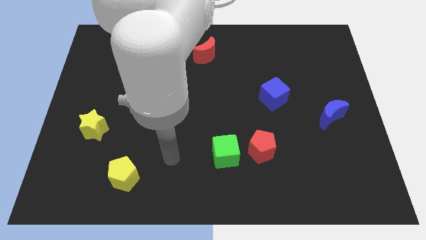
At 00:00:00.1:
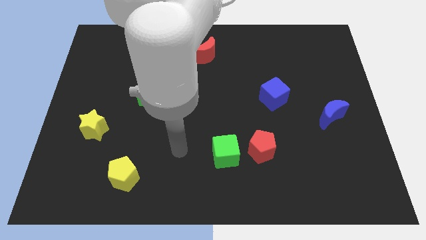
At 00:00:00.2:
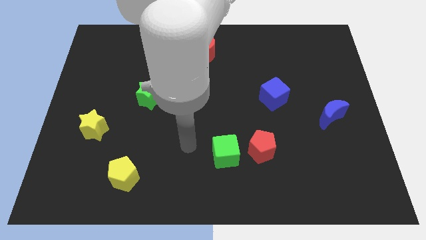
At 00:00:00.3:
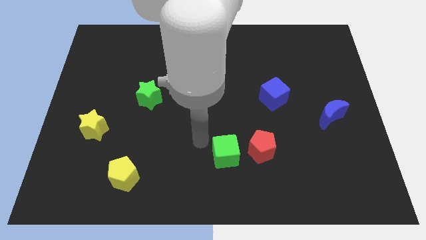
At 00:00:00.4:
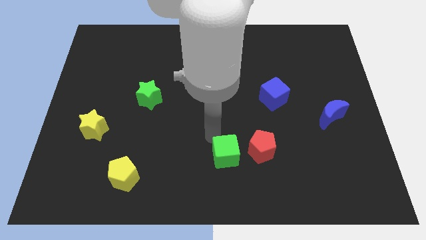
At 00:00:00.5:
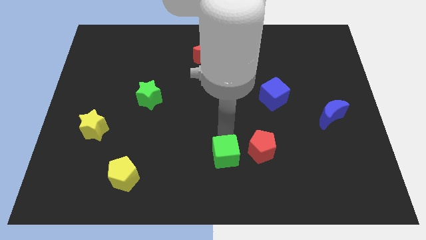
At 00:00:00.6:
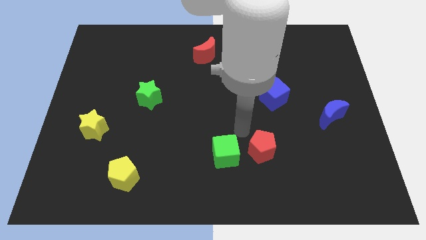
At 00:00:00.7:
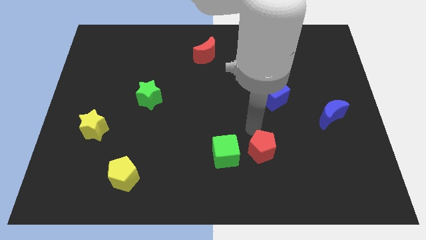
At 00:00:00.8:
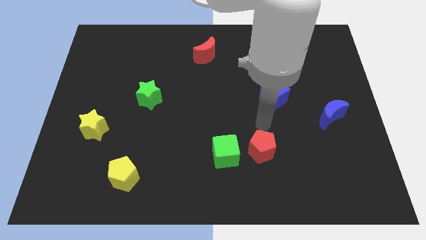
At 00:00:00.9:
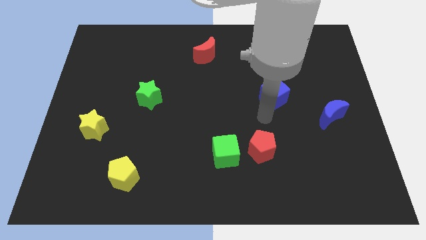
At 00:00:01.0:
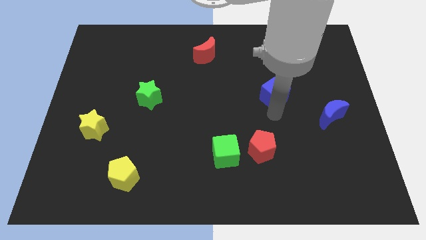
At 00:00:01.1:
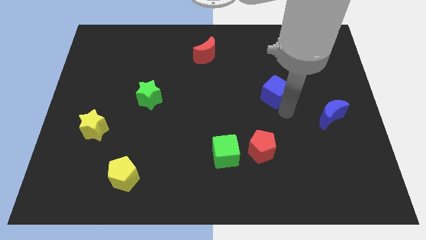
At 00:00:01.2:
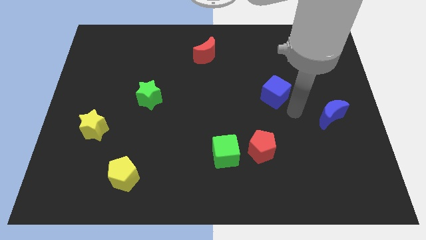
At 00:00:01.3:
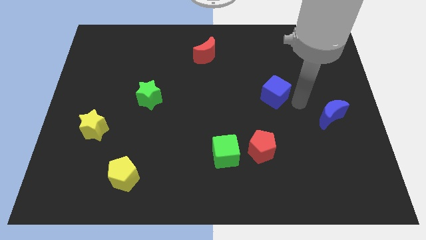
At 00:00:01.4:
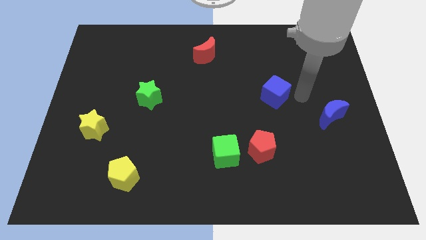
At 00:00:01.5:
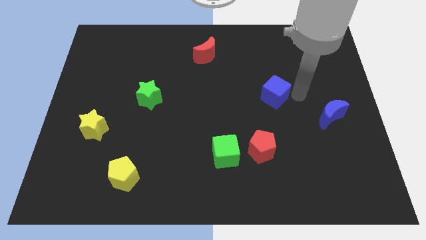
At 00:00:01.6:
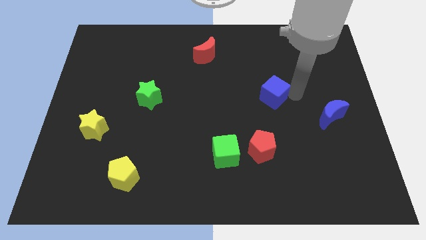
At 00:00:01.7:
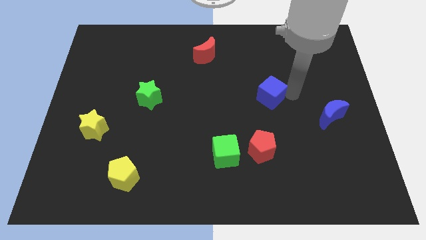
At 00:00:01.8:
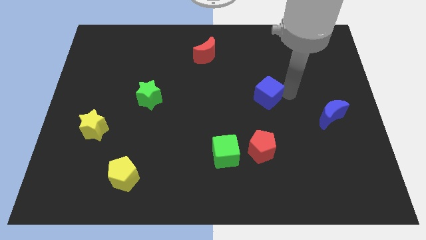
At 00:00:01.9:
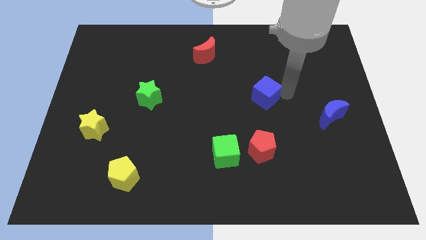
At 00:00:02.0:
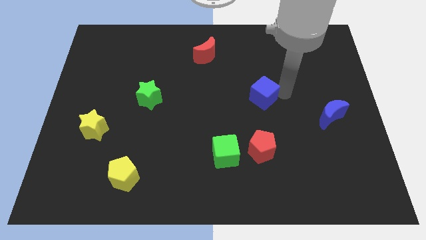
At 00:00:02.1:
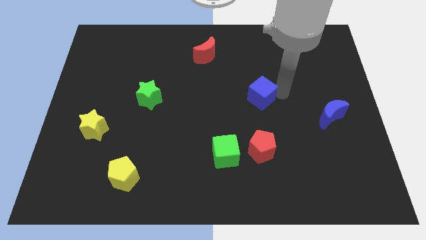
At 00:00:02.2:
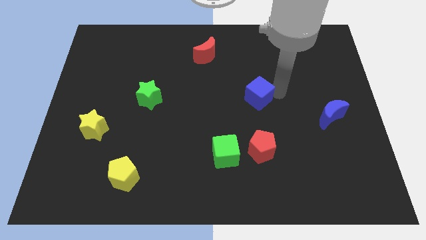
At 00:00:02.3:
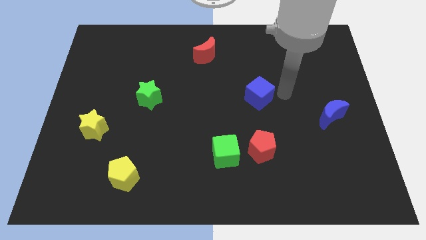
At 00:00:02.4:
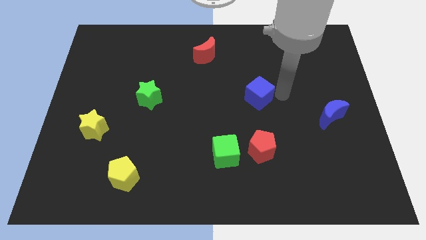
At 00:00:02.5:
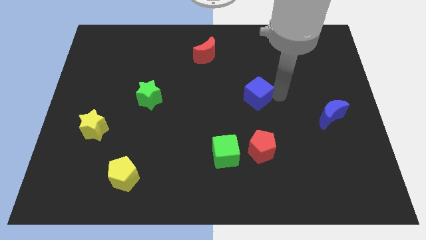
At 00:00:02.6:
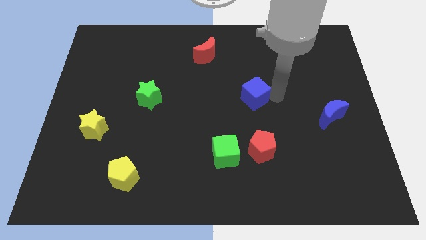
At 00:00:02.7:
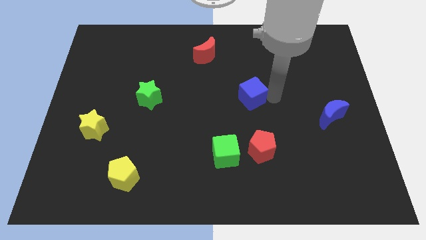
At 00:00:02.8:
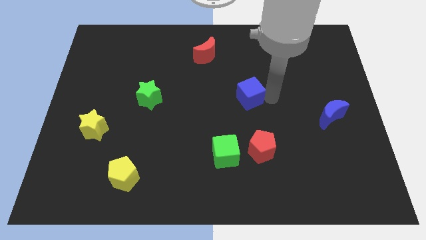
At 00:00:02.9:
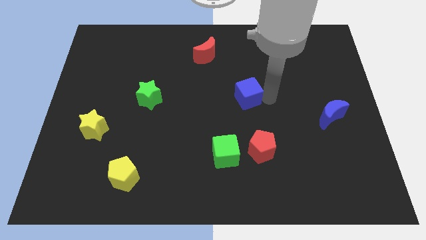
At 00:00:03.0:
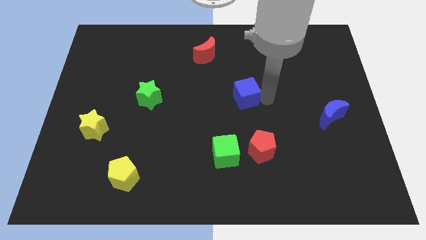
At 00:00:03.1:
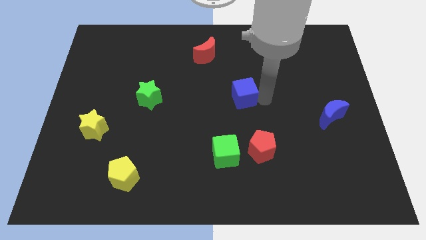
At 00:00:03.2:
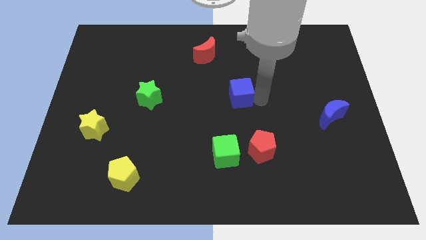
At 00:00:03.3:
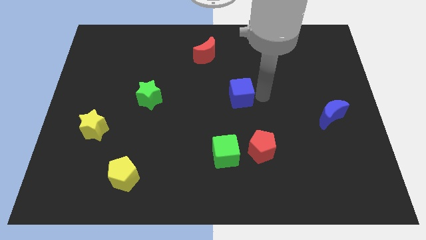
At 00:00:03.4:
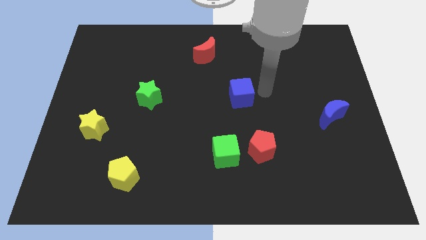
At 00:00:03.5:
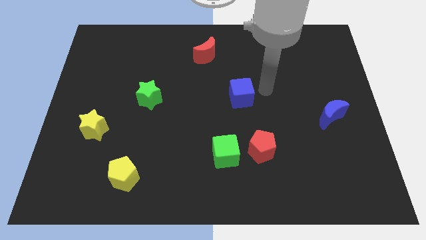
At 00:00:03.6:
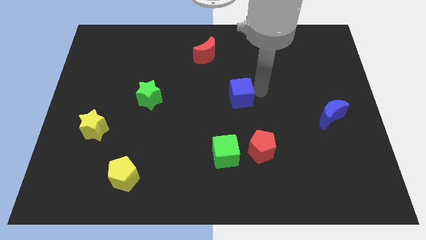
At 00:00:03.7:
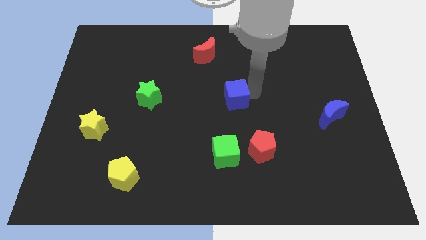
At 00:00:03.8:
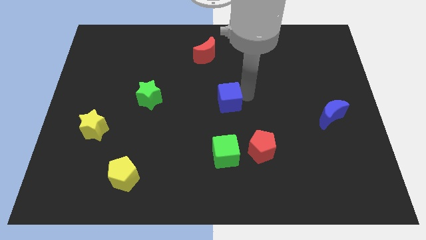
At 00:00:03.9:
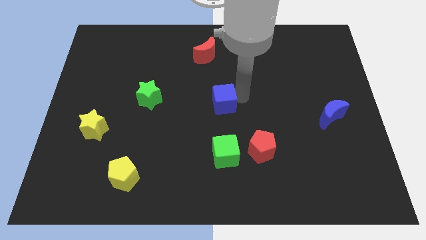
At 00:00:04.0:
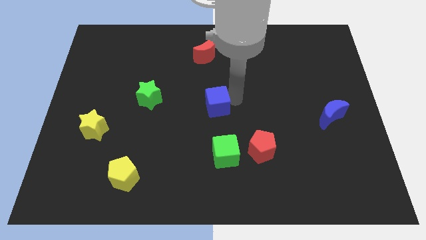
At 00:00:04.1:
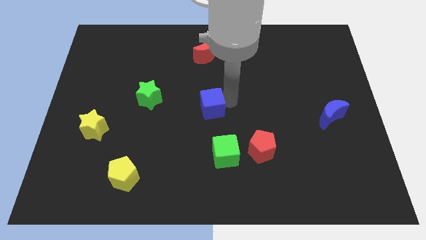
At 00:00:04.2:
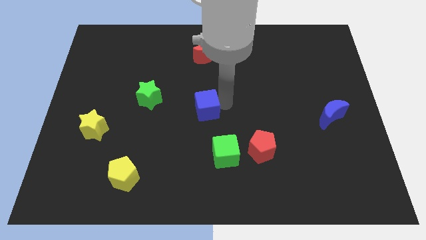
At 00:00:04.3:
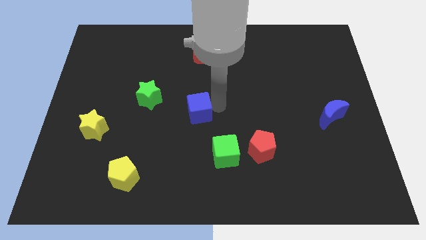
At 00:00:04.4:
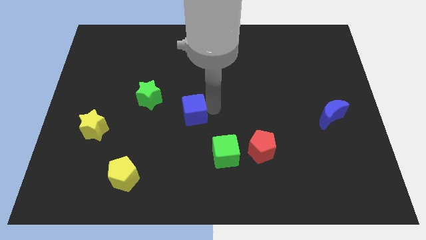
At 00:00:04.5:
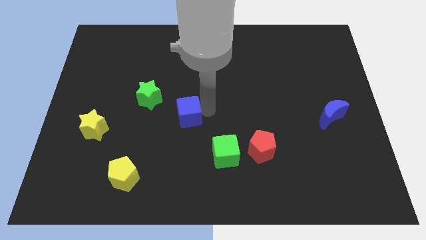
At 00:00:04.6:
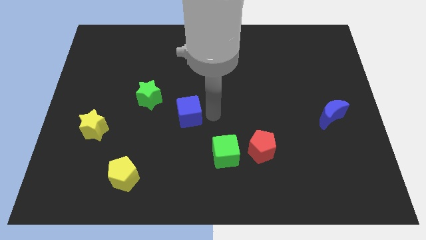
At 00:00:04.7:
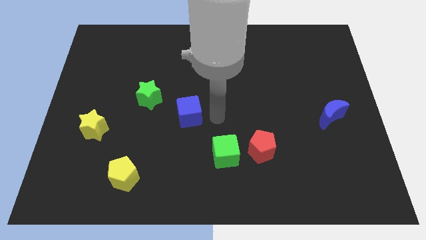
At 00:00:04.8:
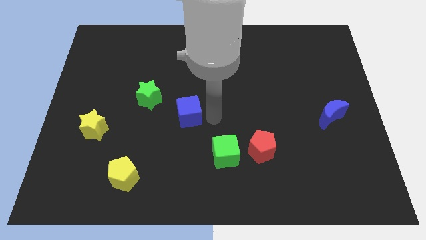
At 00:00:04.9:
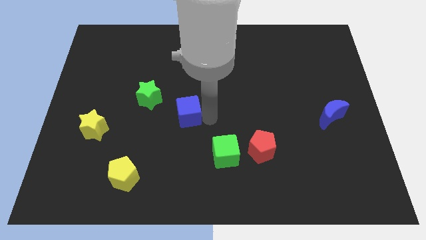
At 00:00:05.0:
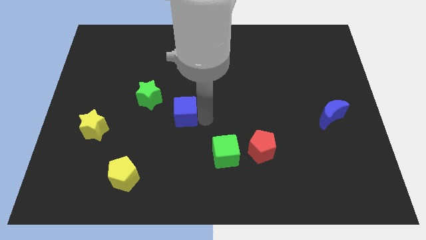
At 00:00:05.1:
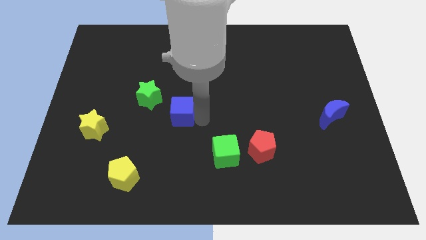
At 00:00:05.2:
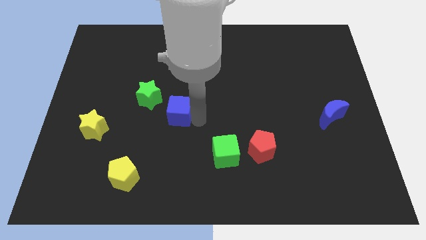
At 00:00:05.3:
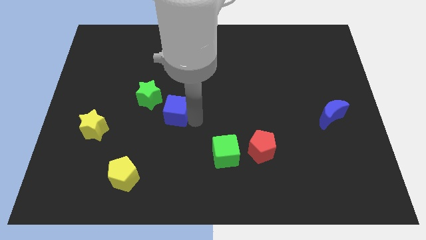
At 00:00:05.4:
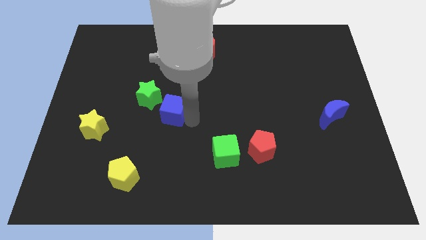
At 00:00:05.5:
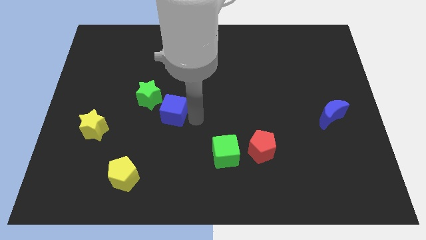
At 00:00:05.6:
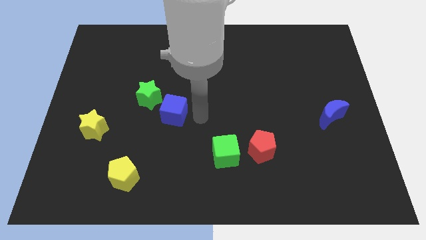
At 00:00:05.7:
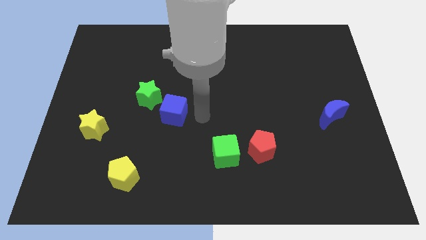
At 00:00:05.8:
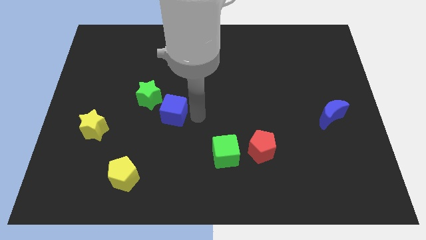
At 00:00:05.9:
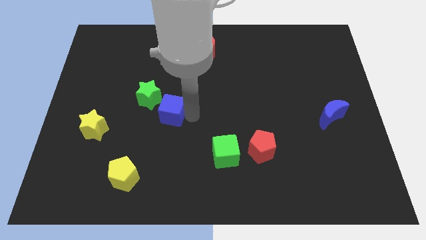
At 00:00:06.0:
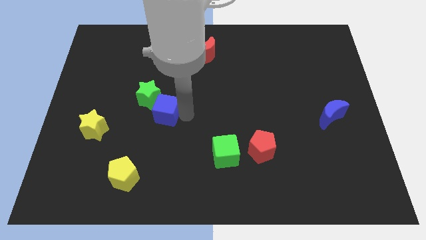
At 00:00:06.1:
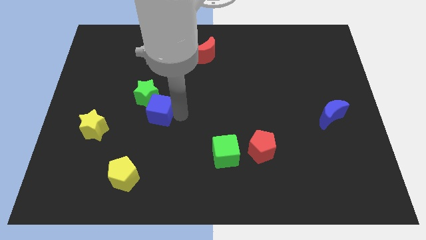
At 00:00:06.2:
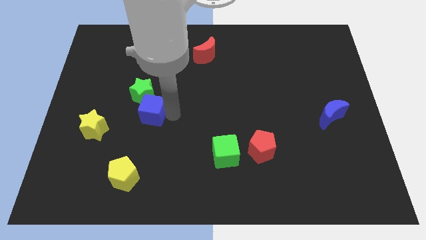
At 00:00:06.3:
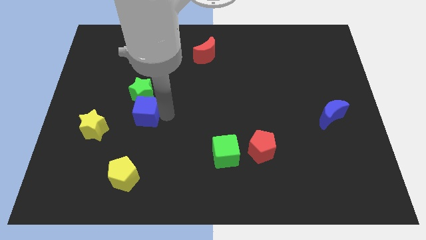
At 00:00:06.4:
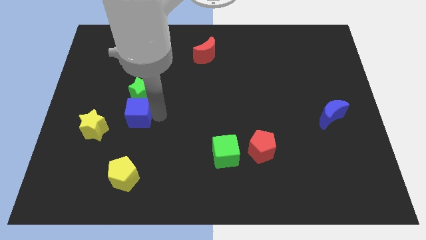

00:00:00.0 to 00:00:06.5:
push the blue cube to the top right side of the yellow star
